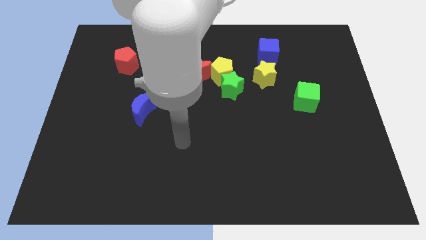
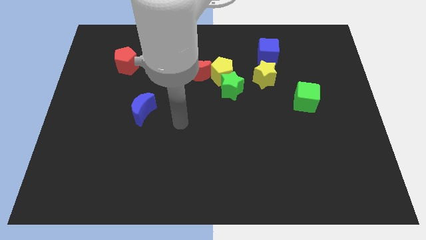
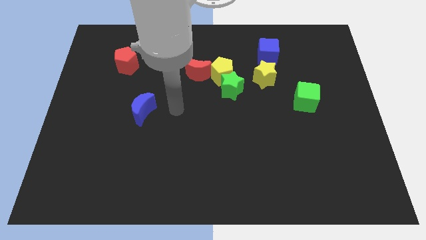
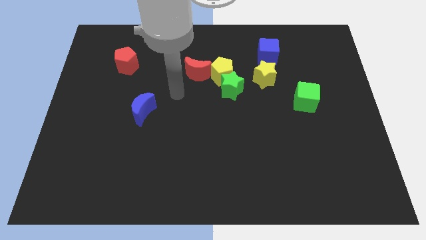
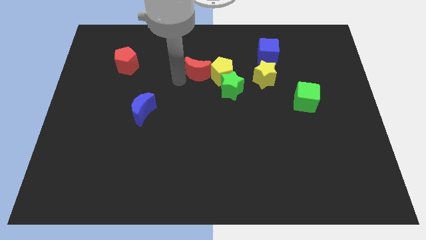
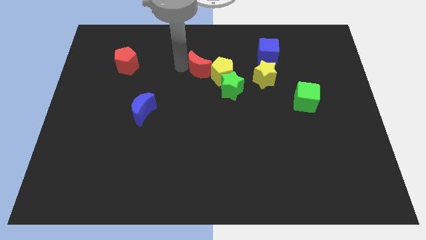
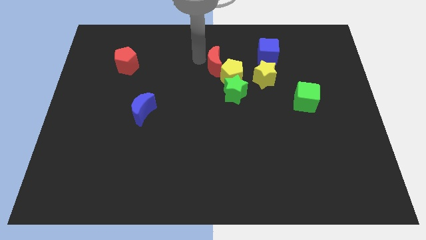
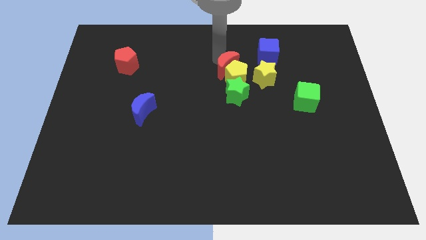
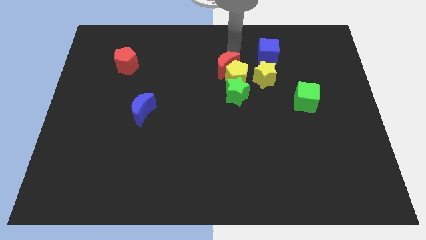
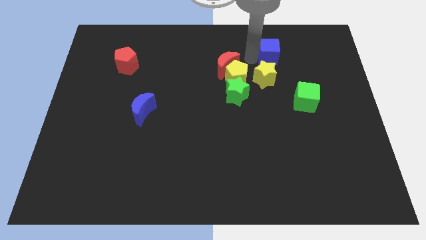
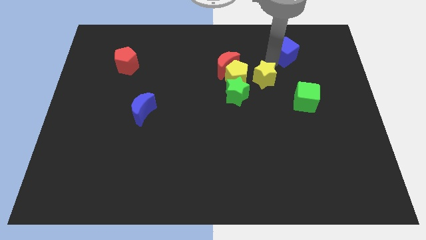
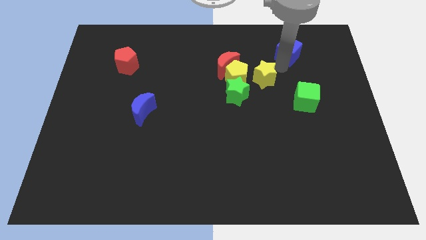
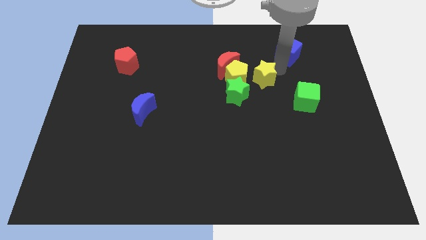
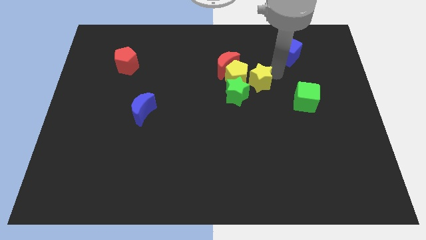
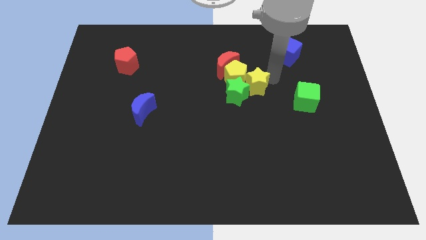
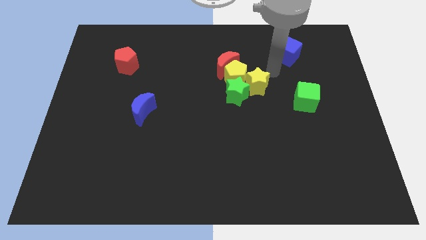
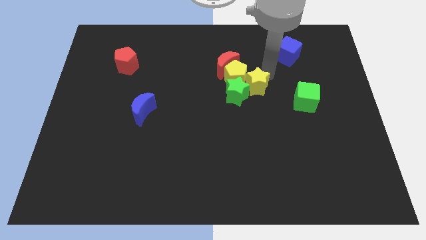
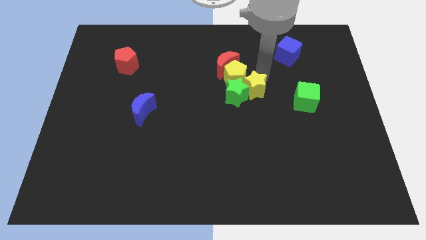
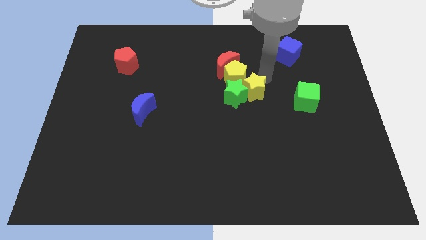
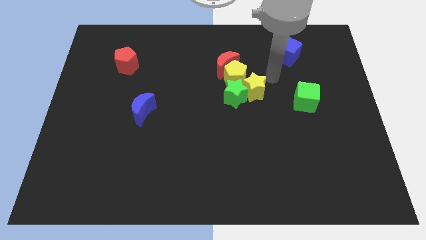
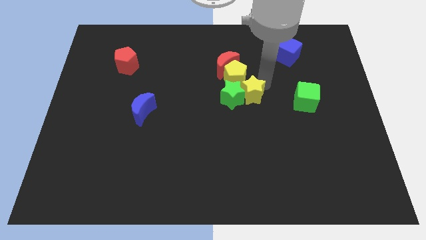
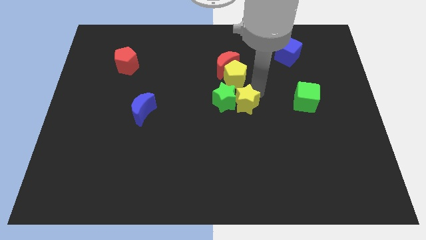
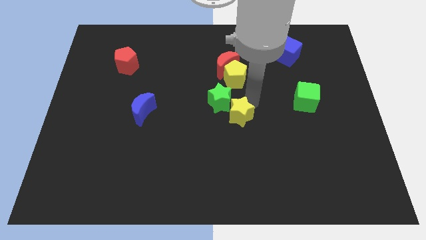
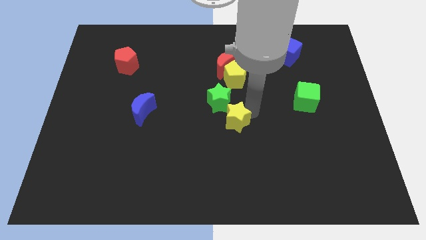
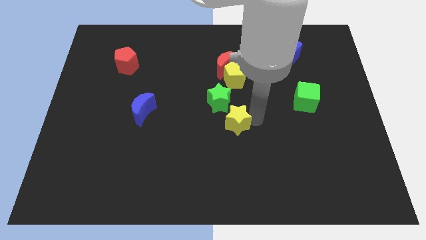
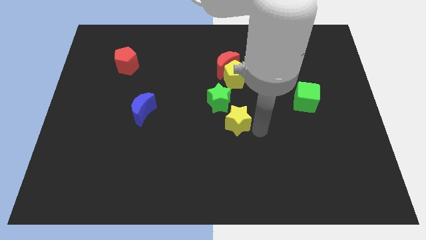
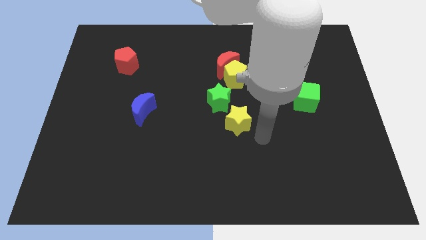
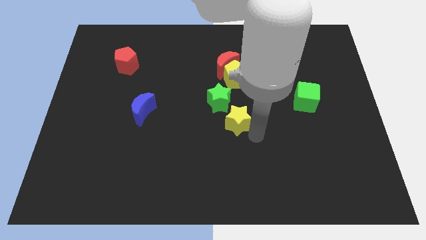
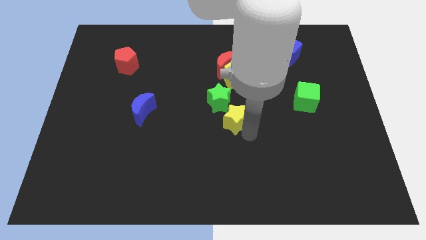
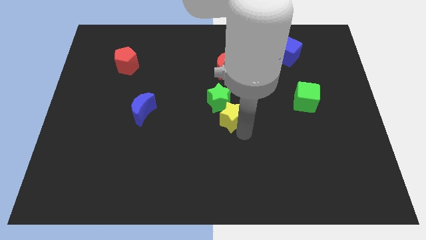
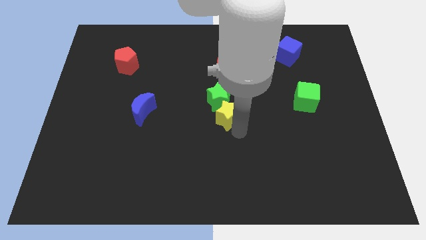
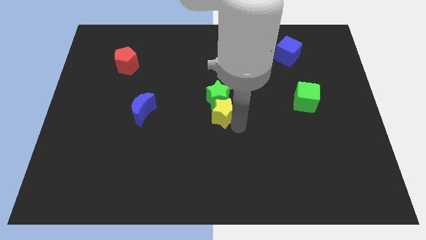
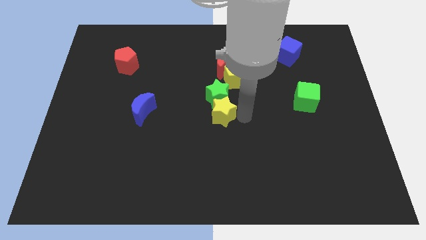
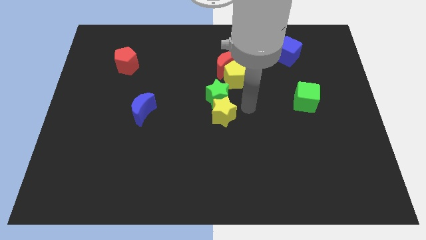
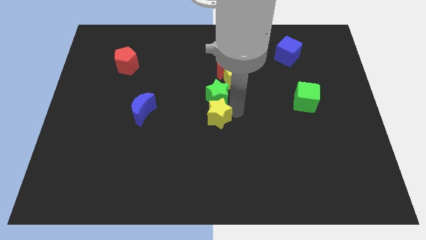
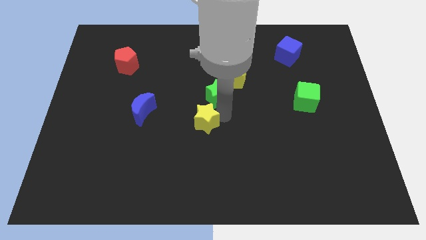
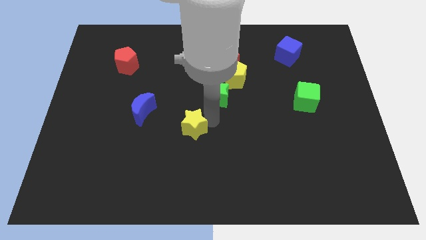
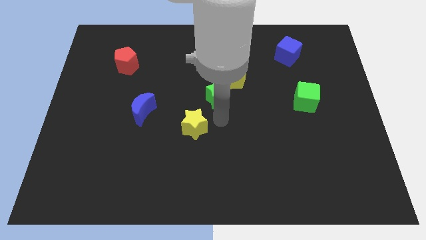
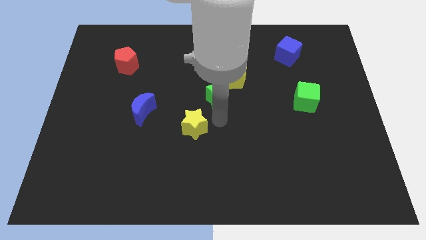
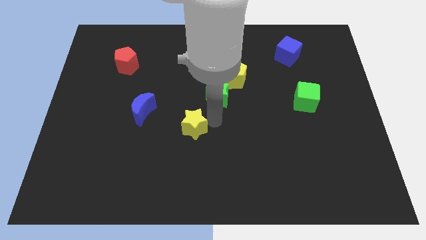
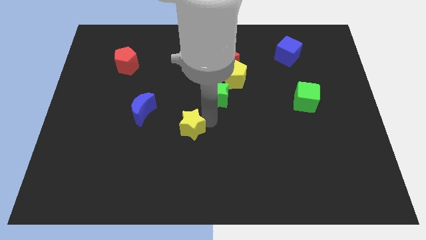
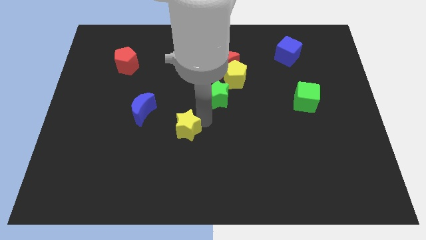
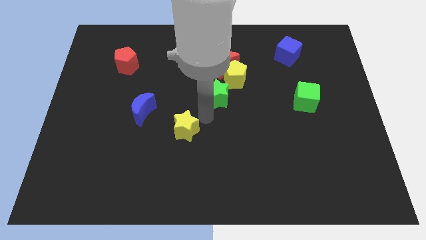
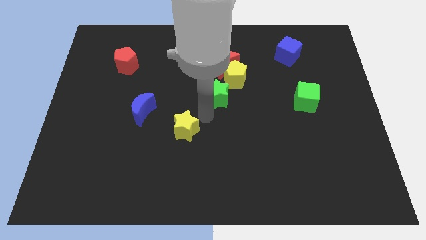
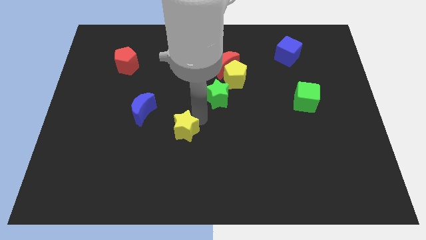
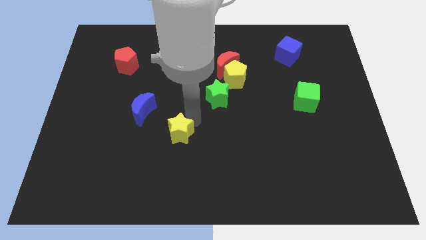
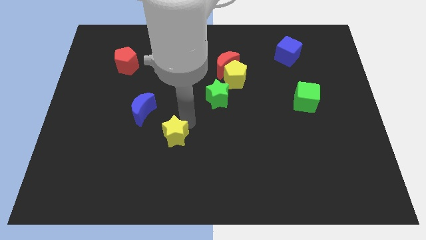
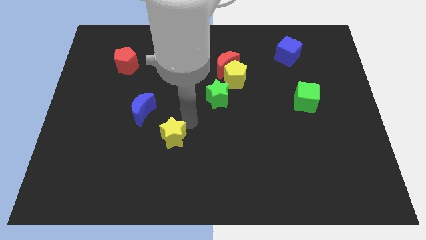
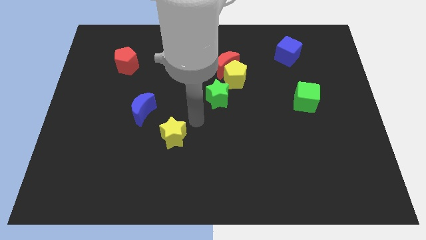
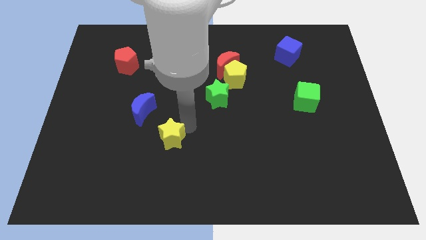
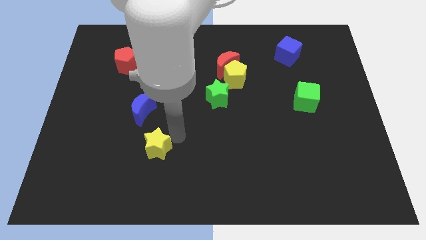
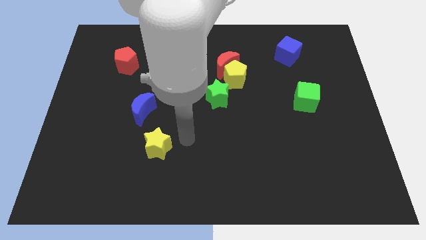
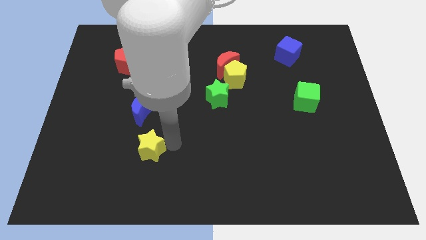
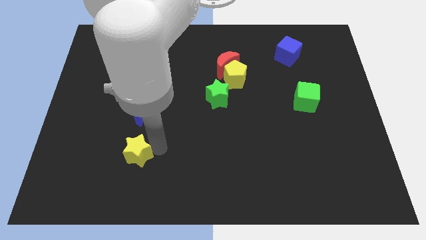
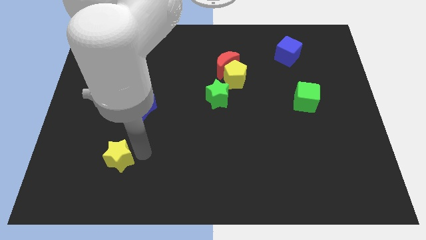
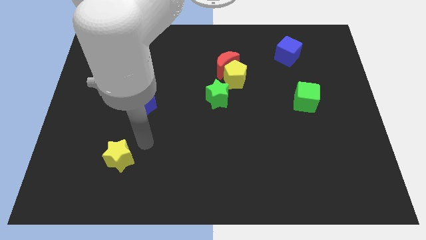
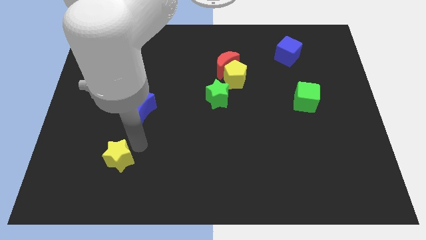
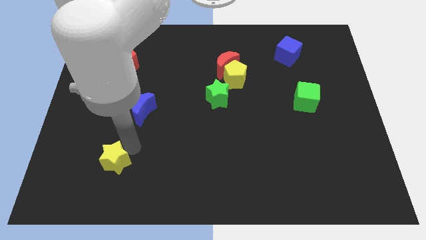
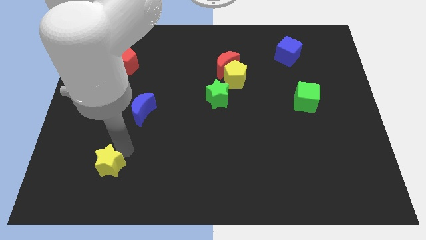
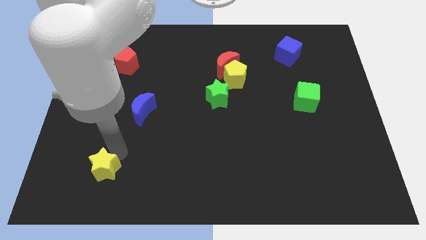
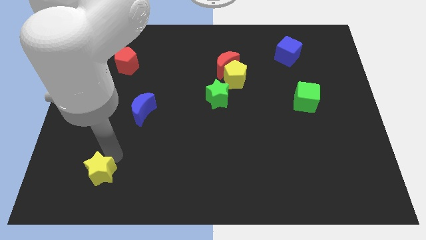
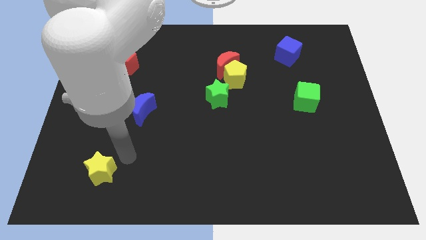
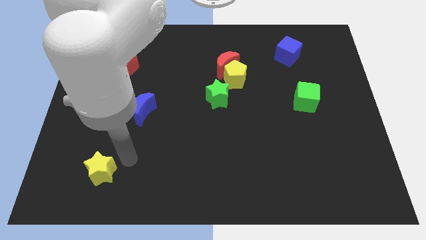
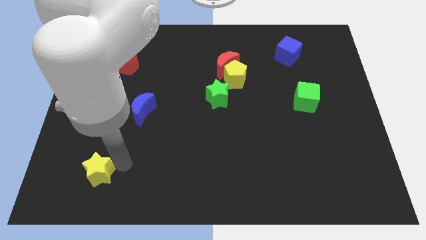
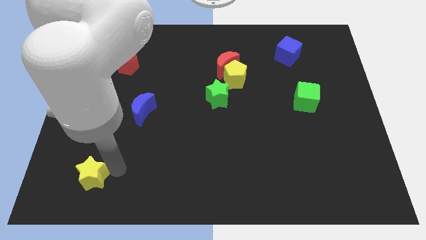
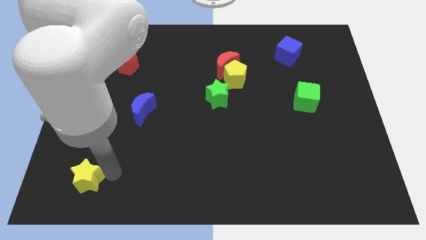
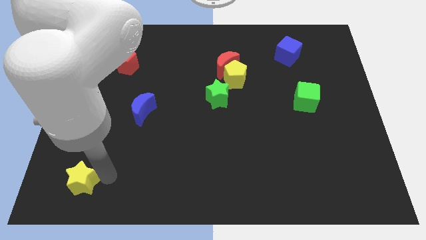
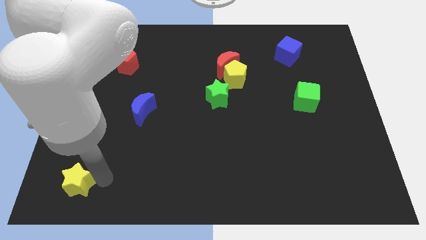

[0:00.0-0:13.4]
slide the yellow star to the bottom left
